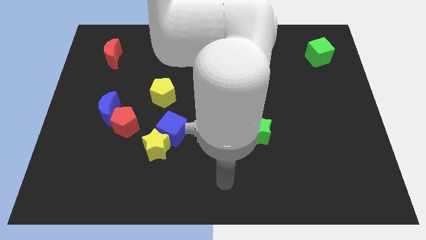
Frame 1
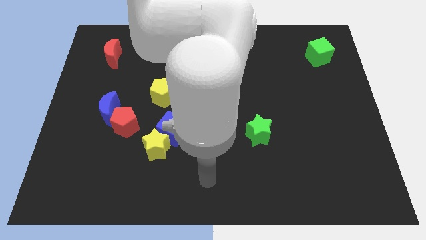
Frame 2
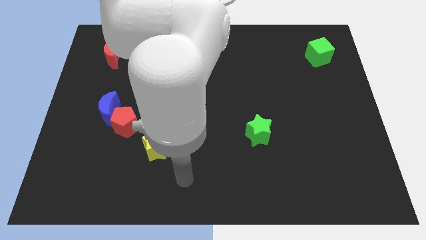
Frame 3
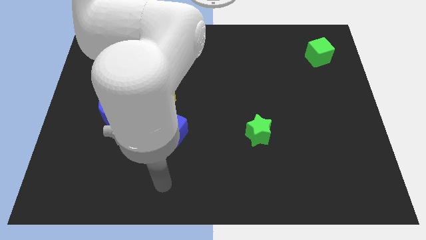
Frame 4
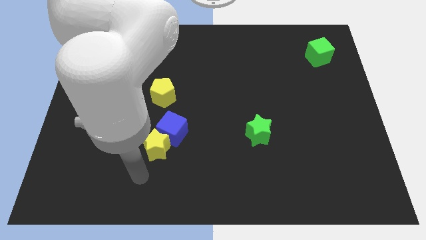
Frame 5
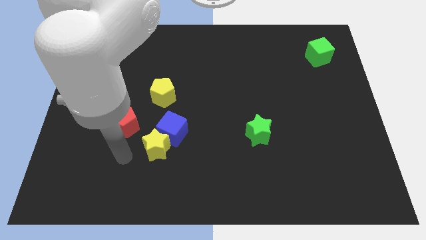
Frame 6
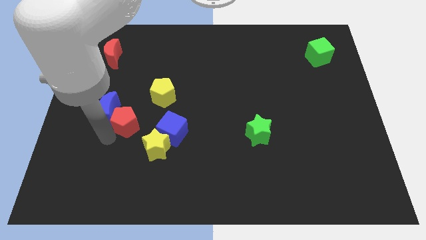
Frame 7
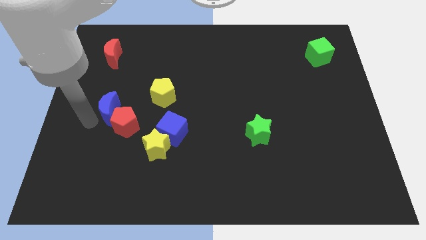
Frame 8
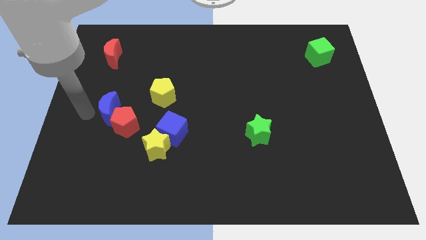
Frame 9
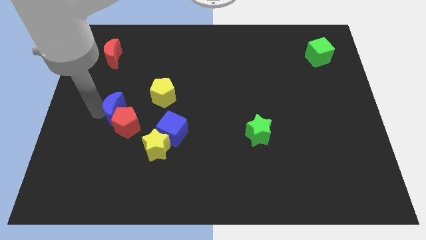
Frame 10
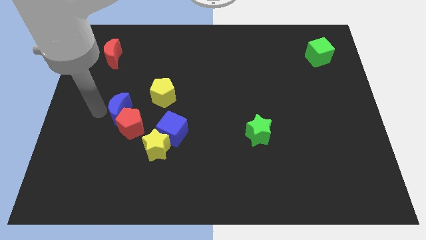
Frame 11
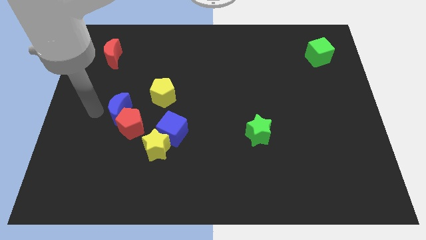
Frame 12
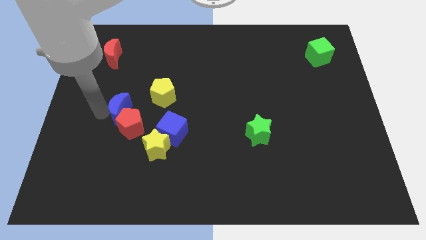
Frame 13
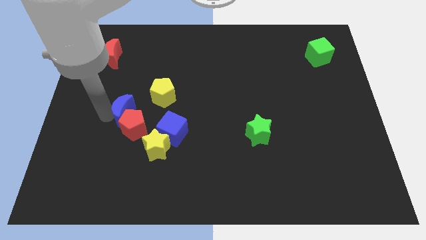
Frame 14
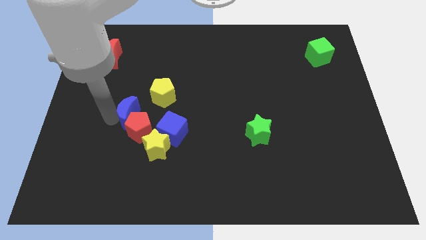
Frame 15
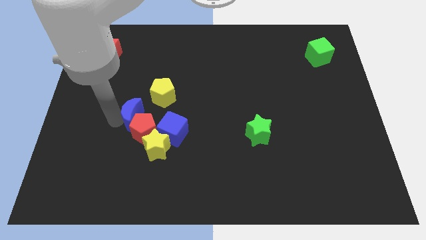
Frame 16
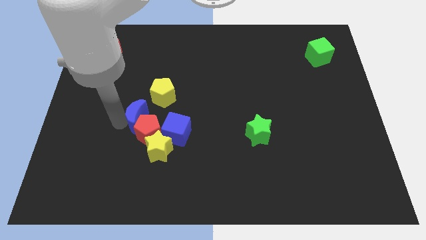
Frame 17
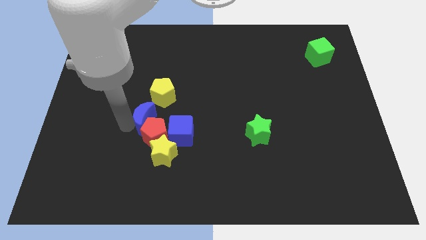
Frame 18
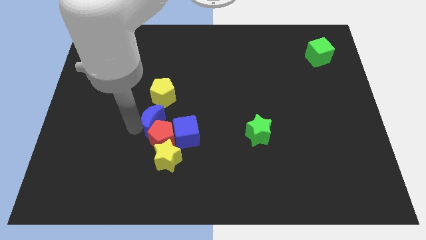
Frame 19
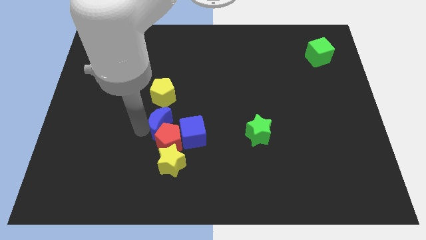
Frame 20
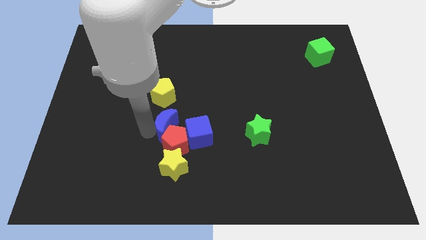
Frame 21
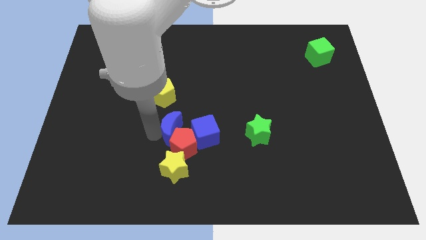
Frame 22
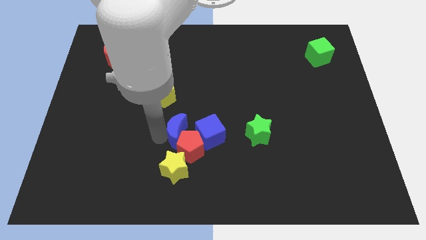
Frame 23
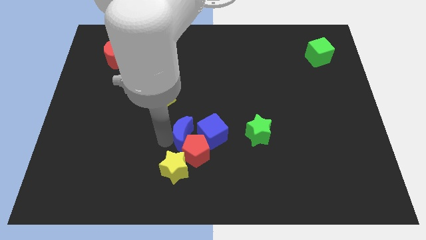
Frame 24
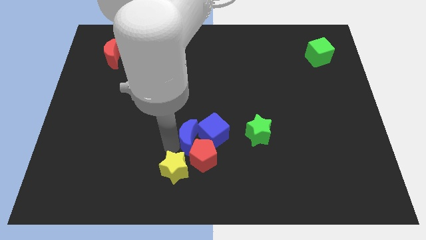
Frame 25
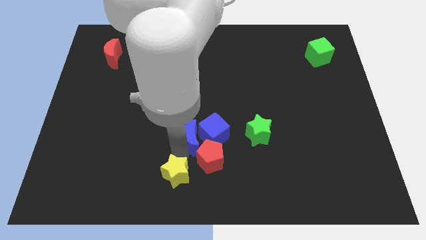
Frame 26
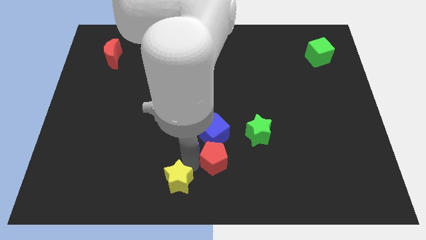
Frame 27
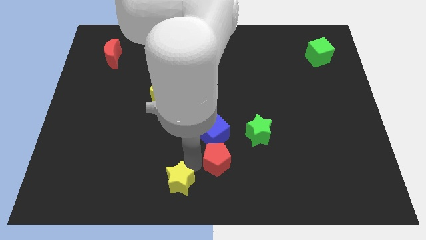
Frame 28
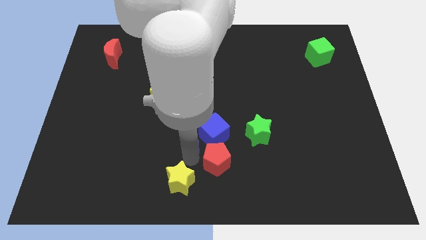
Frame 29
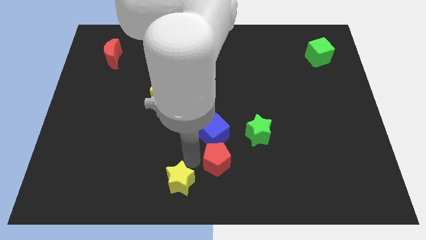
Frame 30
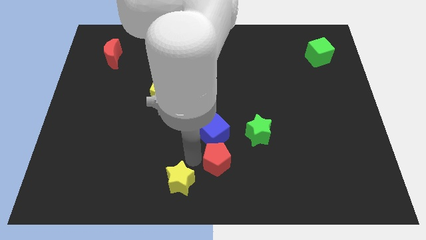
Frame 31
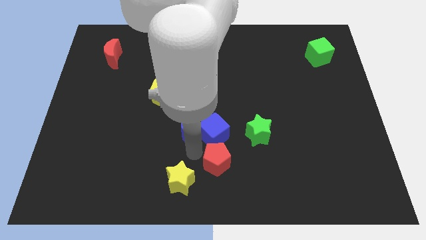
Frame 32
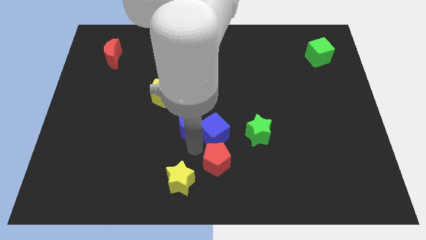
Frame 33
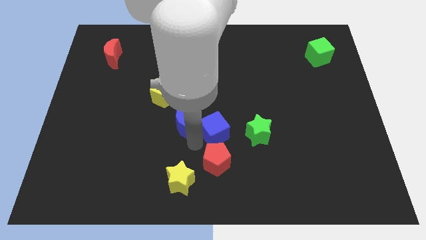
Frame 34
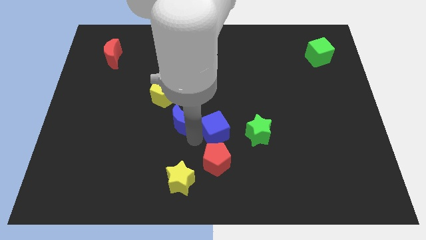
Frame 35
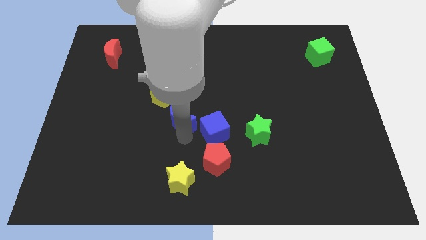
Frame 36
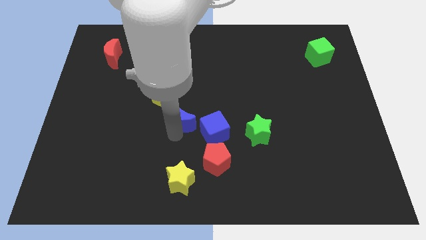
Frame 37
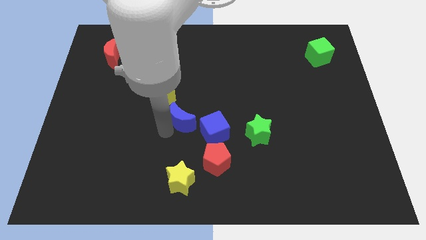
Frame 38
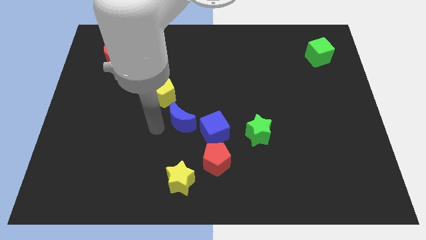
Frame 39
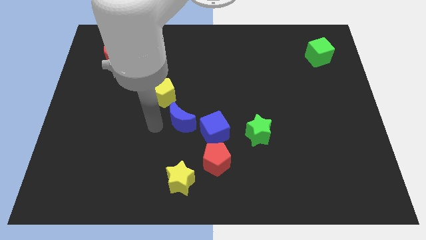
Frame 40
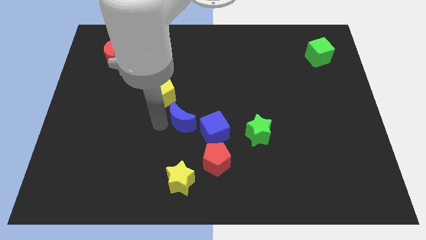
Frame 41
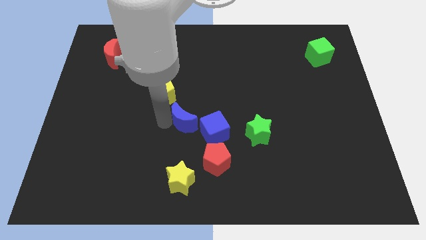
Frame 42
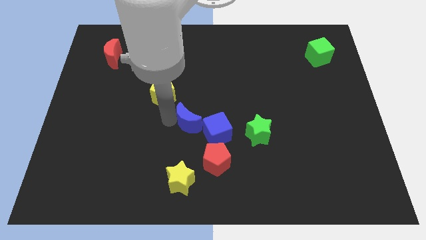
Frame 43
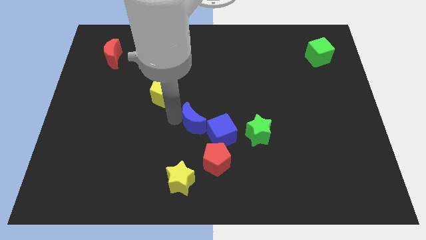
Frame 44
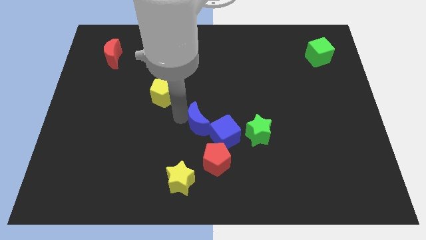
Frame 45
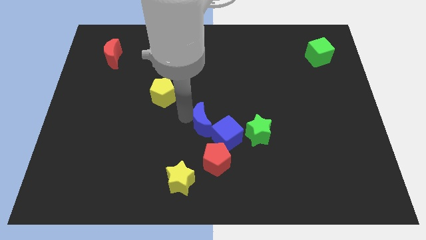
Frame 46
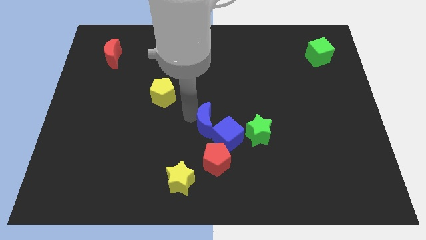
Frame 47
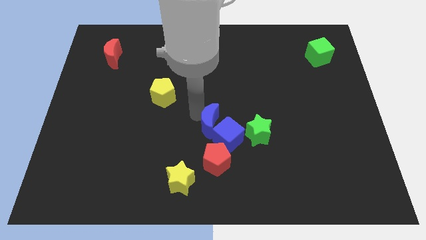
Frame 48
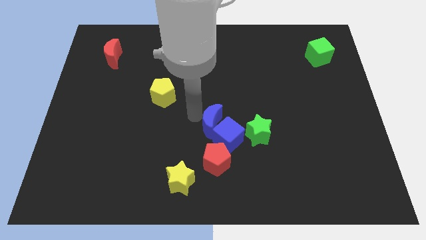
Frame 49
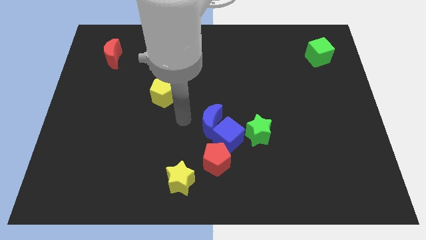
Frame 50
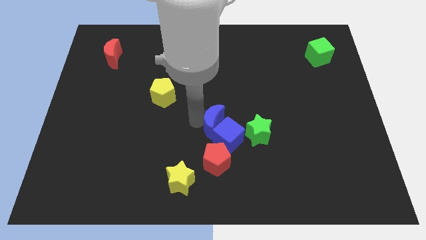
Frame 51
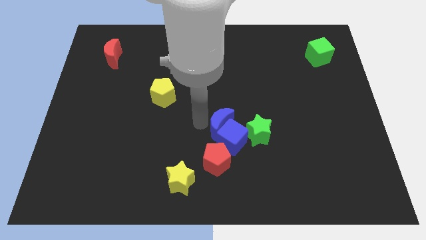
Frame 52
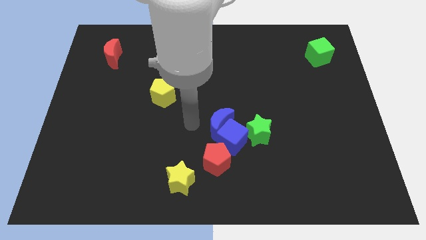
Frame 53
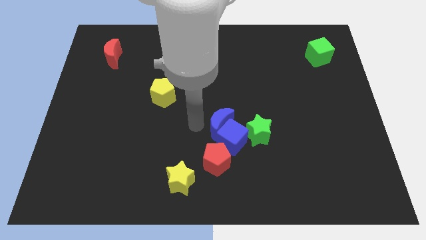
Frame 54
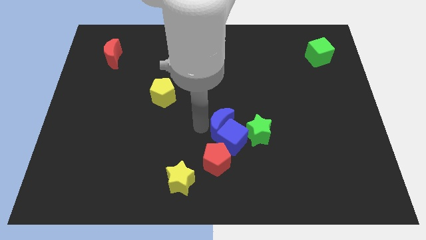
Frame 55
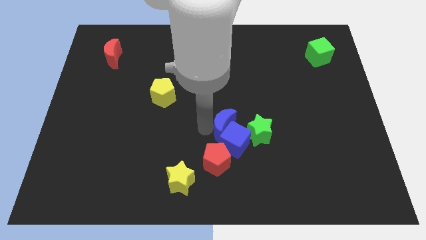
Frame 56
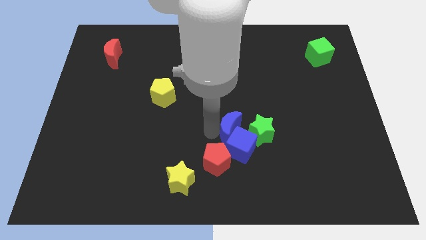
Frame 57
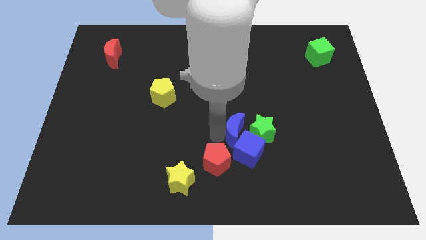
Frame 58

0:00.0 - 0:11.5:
slide the blue moon towards the green star

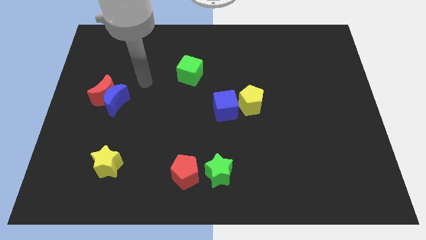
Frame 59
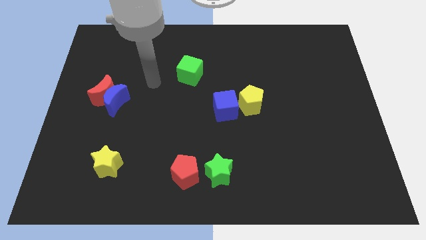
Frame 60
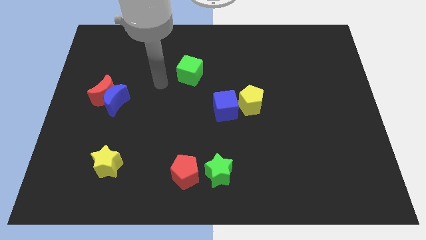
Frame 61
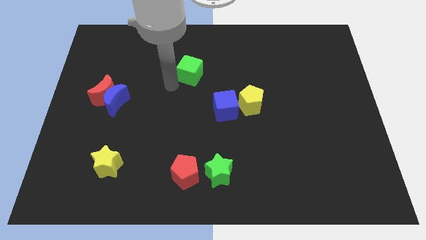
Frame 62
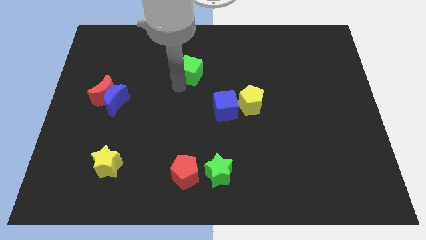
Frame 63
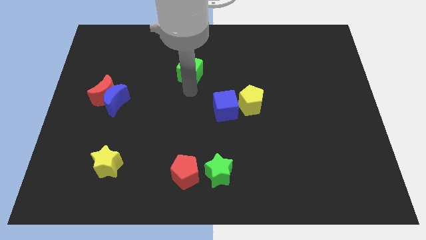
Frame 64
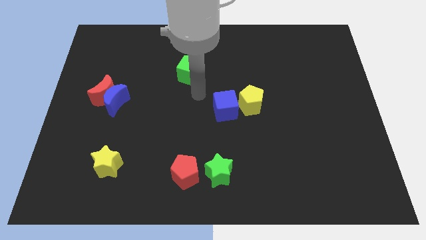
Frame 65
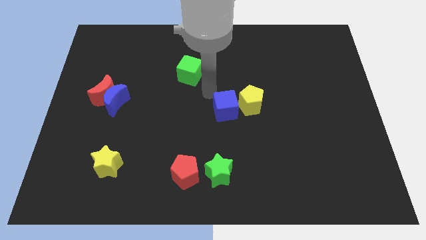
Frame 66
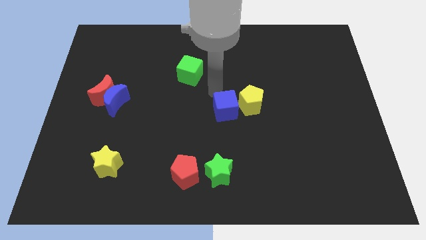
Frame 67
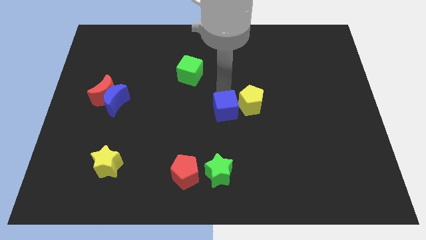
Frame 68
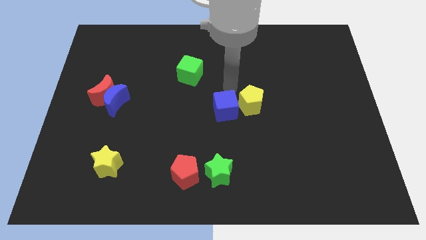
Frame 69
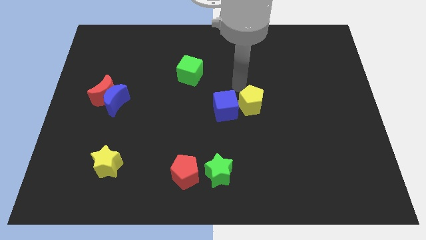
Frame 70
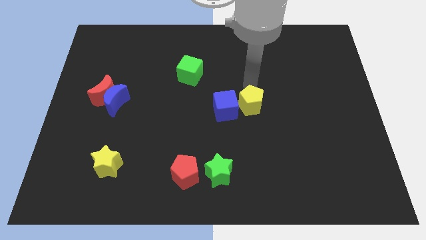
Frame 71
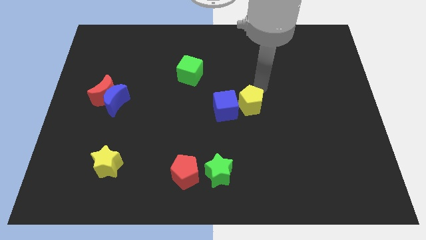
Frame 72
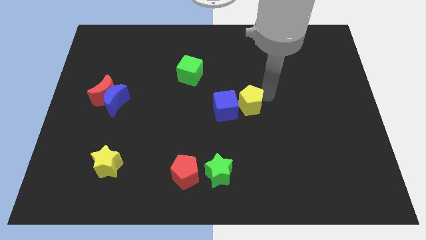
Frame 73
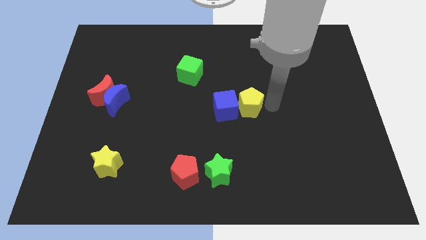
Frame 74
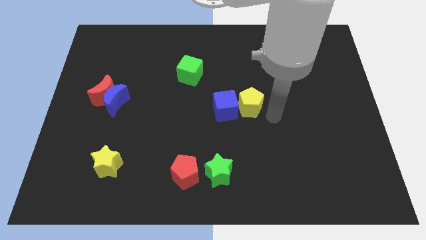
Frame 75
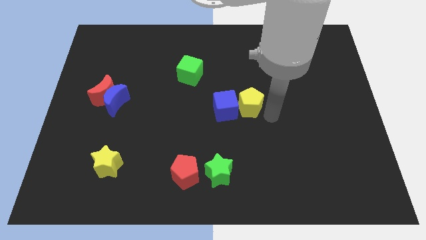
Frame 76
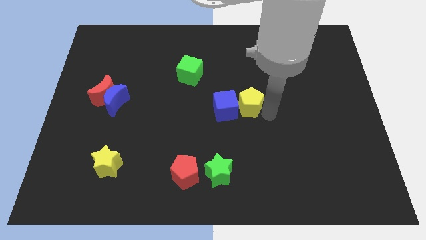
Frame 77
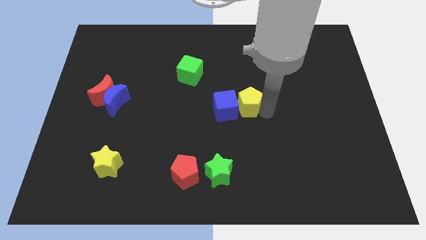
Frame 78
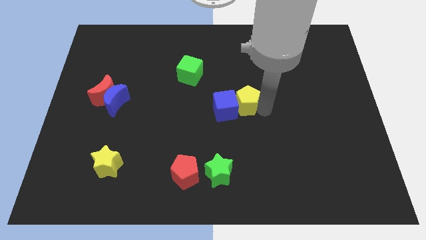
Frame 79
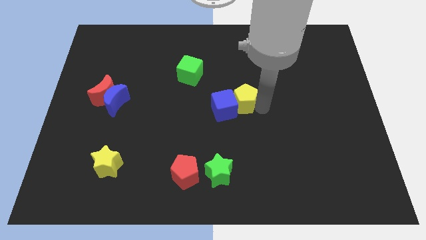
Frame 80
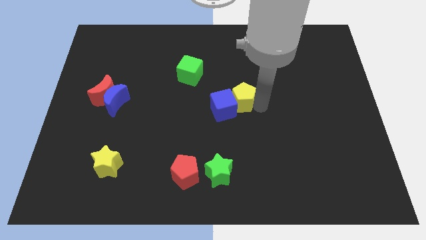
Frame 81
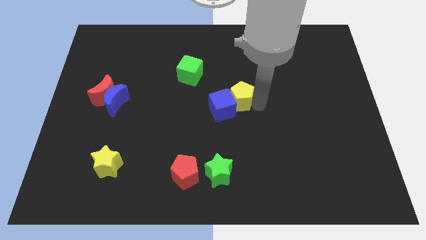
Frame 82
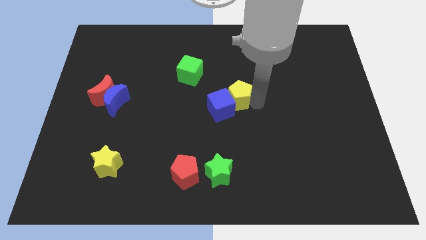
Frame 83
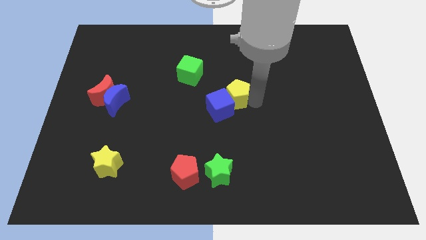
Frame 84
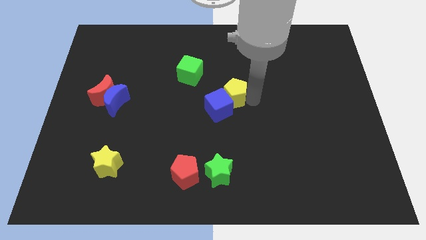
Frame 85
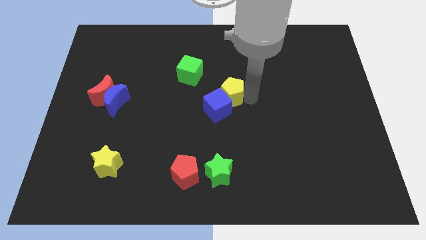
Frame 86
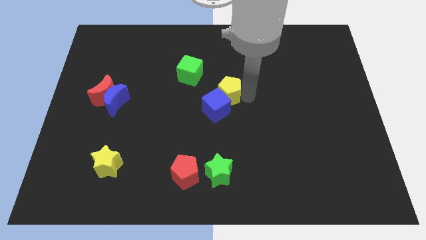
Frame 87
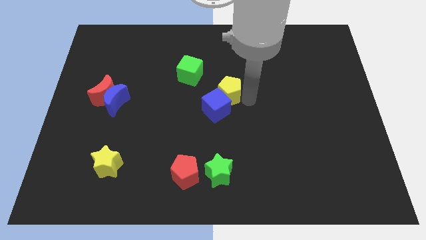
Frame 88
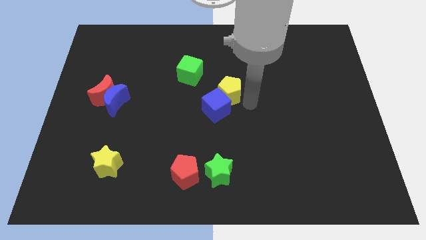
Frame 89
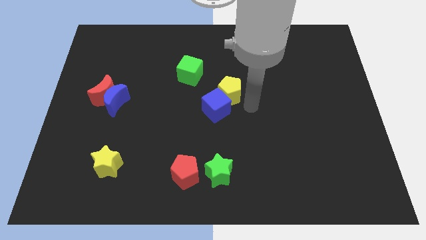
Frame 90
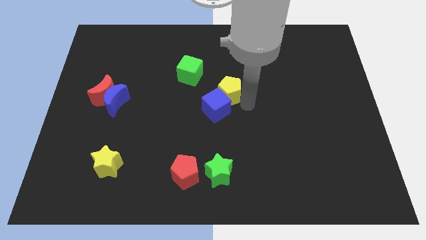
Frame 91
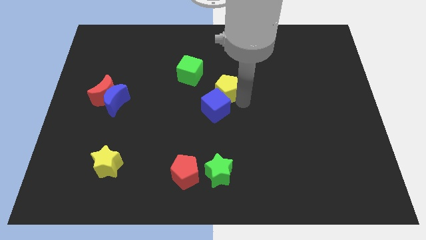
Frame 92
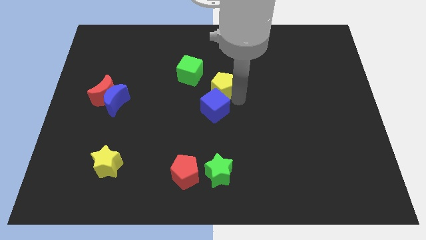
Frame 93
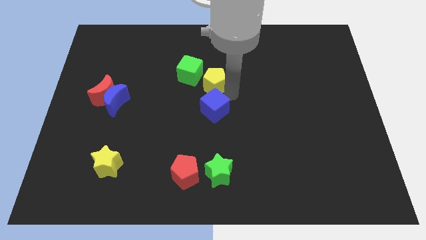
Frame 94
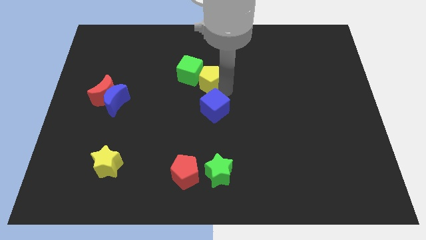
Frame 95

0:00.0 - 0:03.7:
put the yellow pentagon close to the green cube
